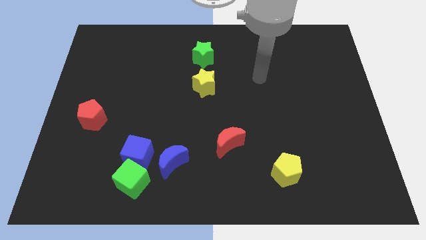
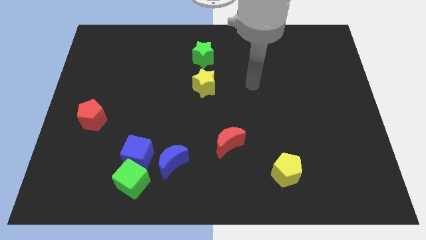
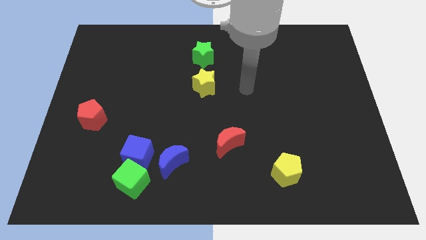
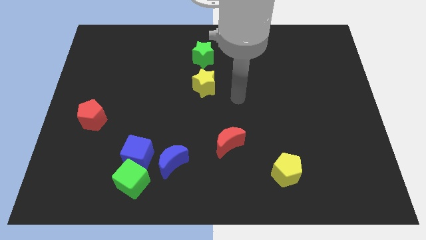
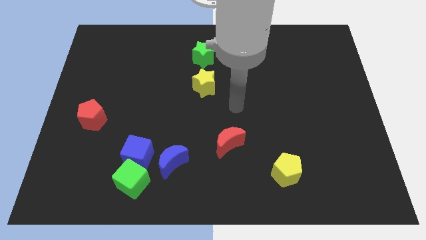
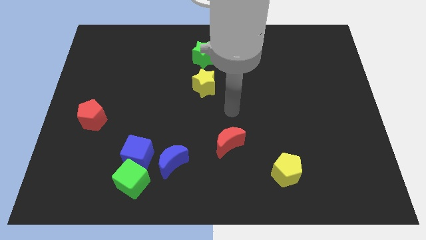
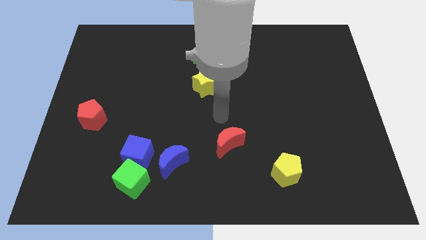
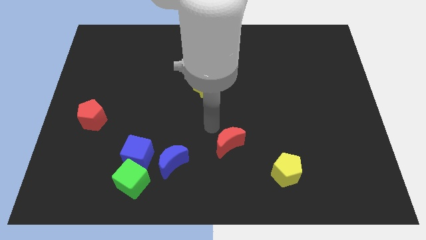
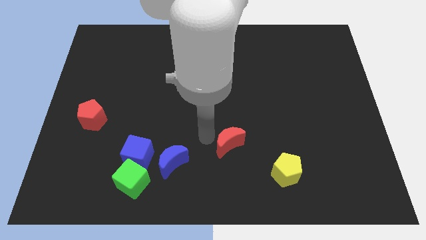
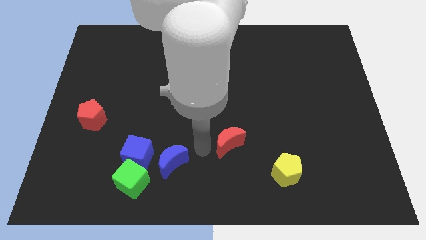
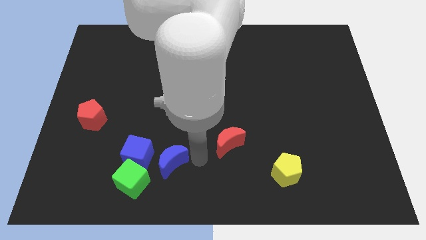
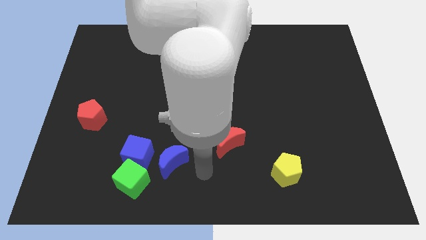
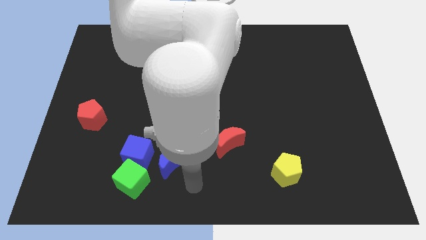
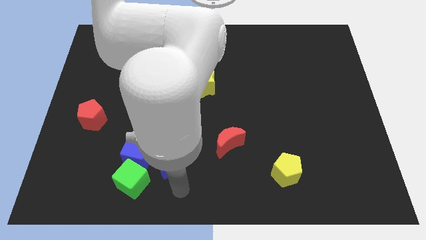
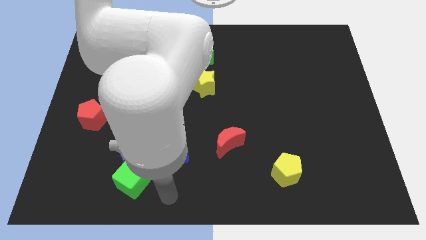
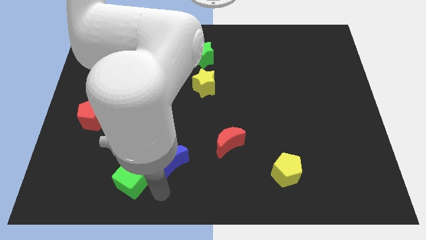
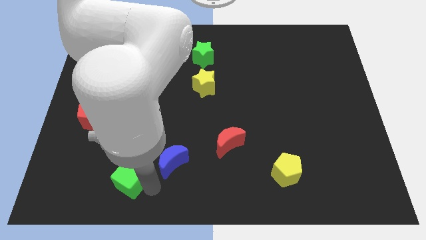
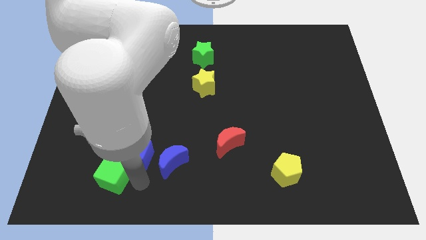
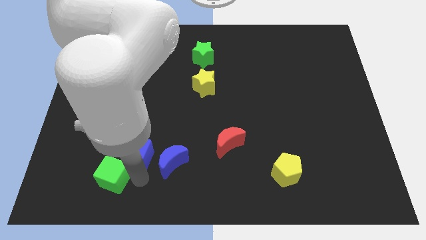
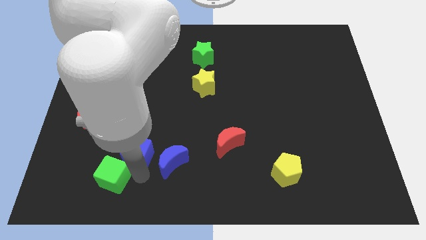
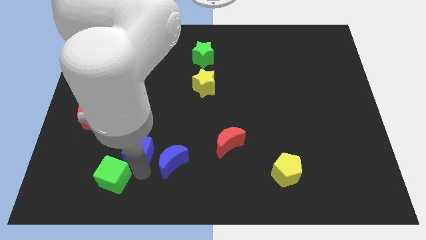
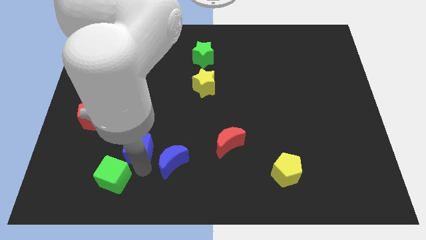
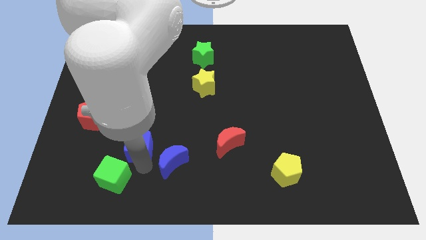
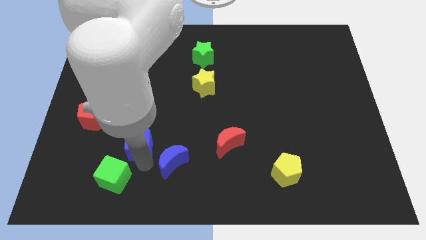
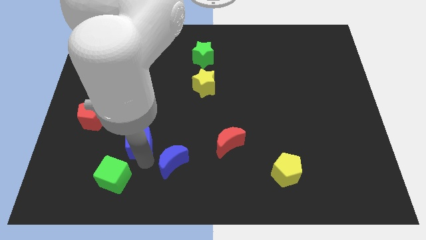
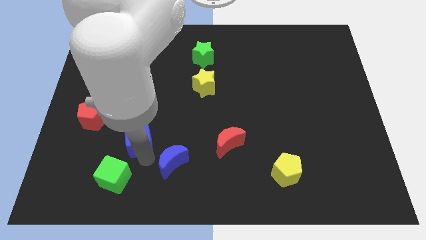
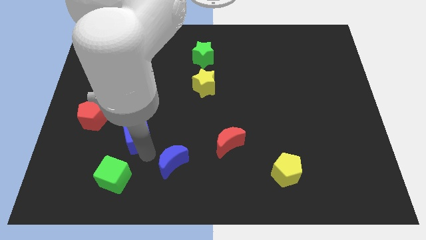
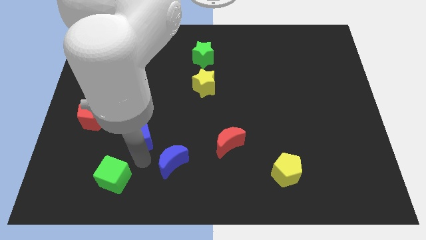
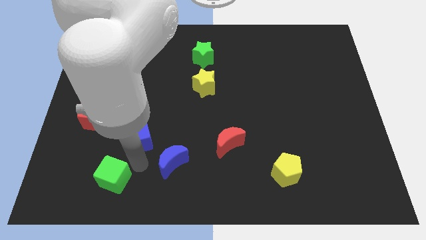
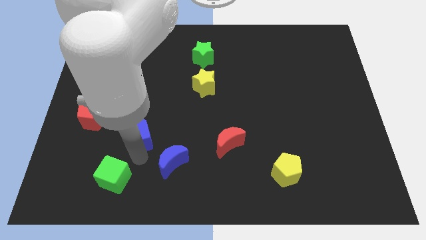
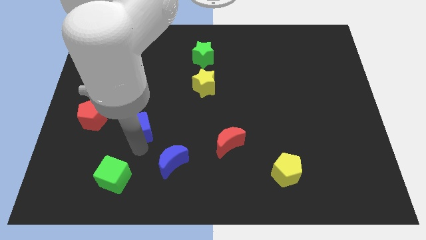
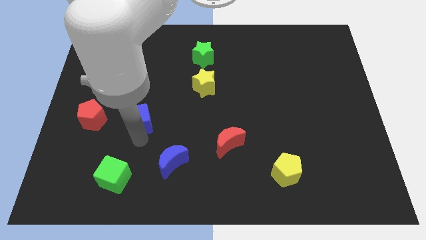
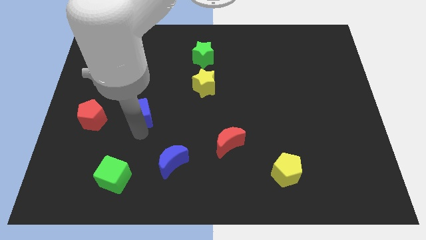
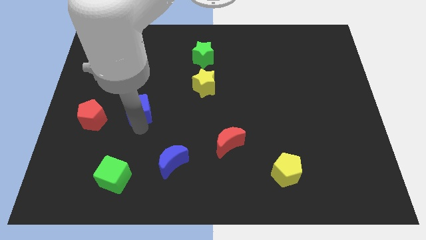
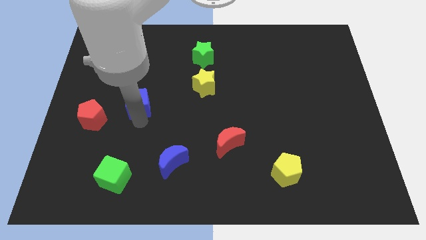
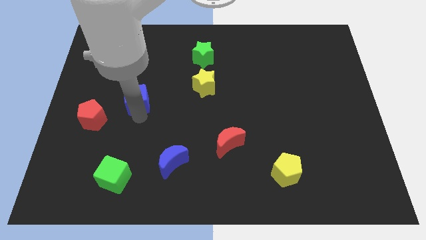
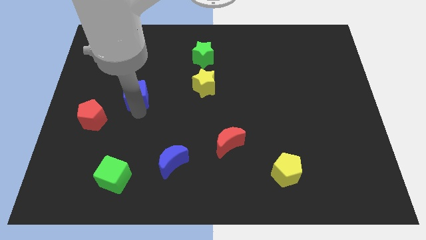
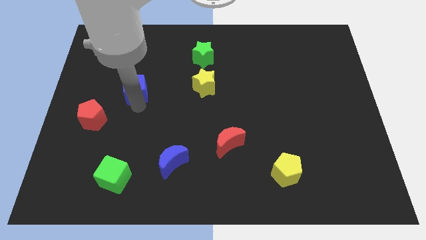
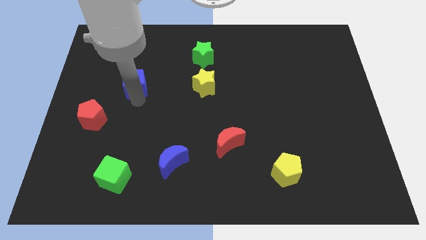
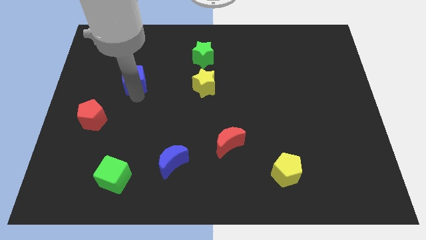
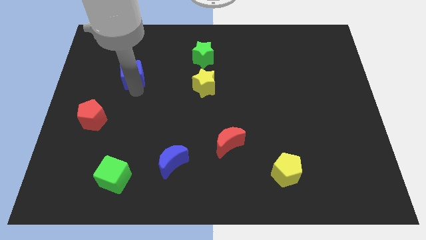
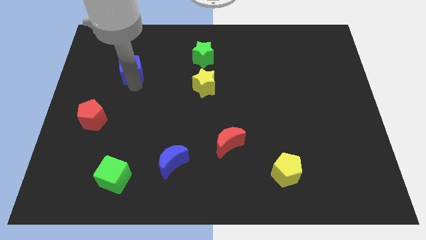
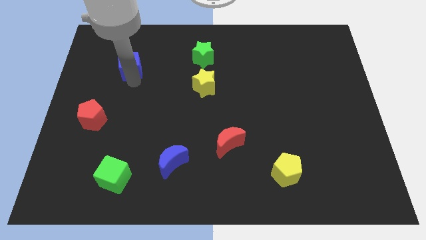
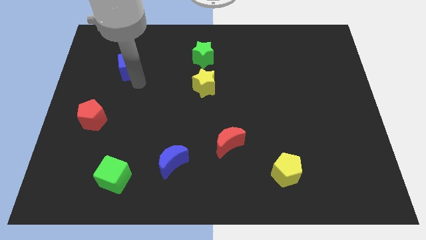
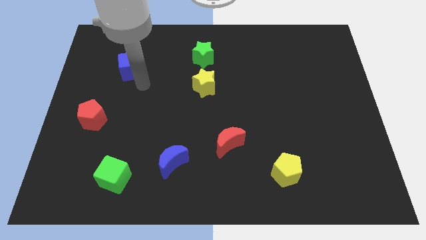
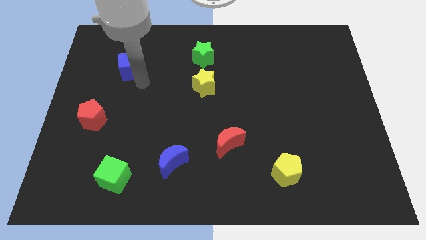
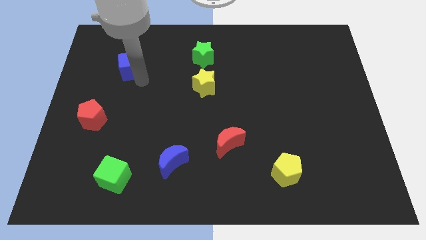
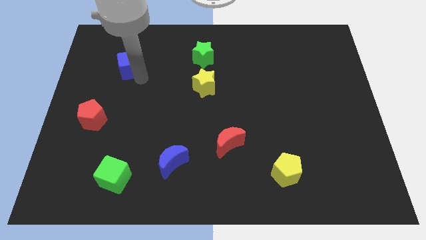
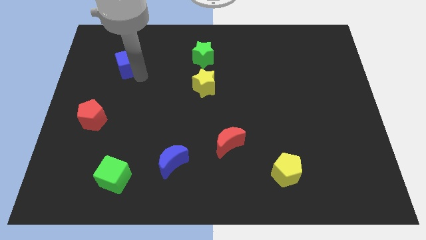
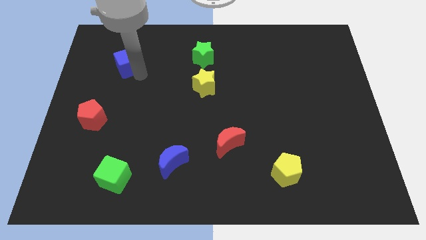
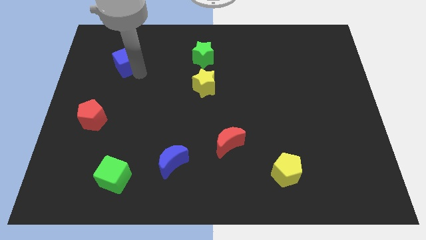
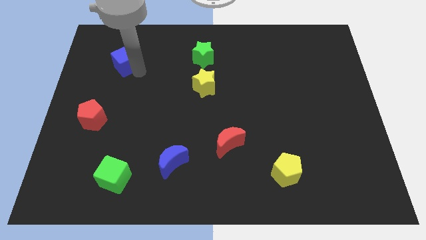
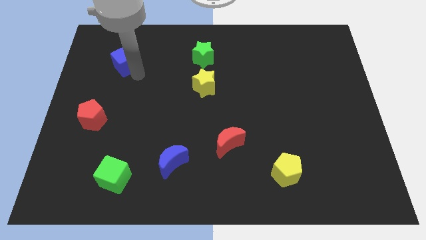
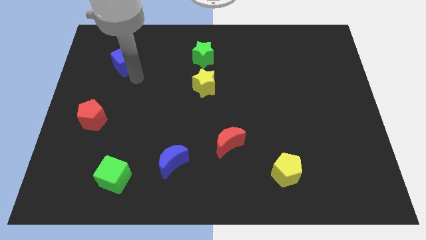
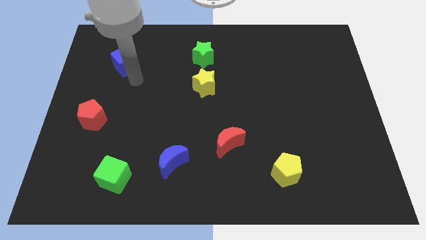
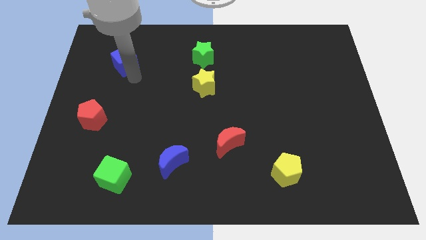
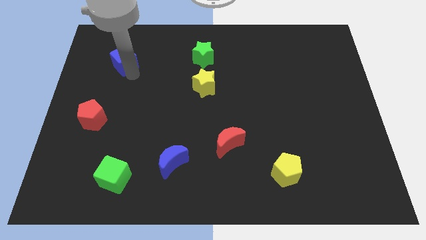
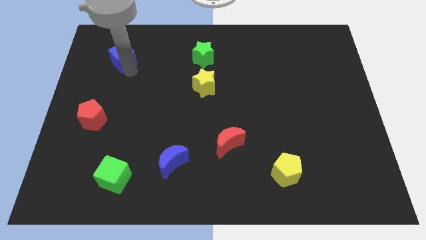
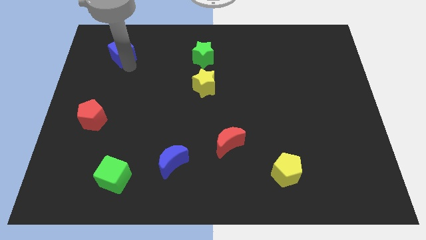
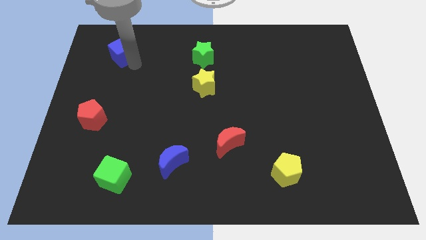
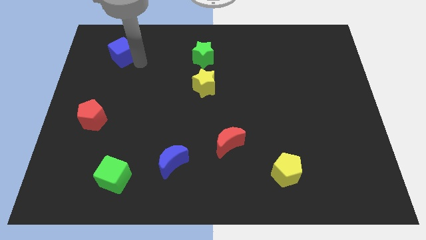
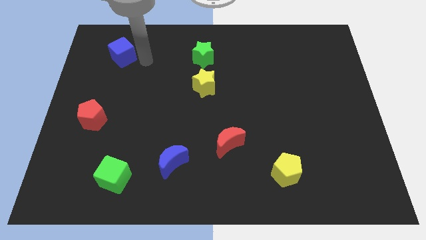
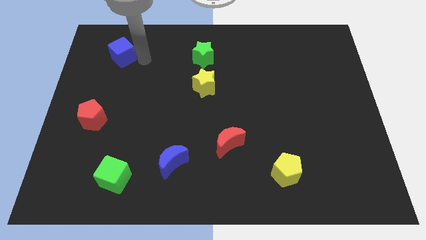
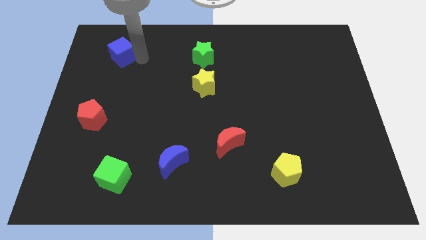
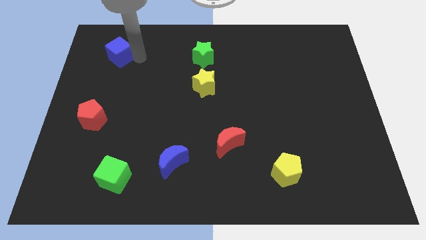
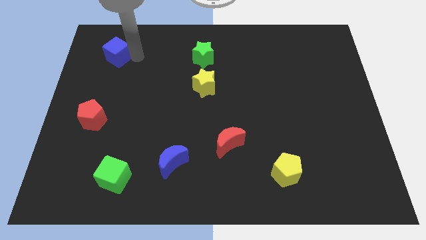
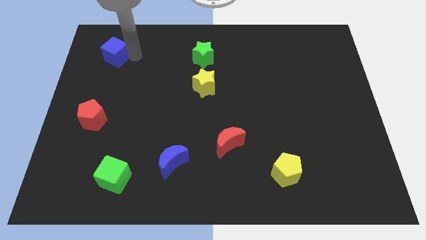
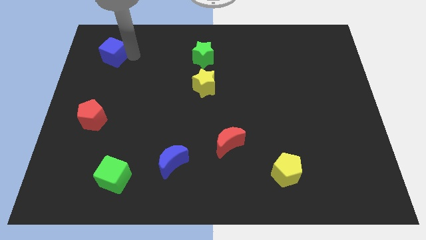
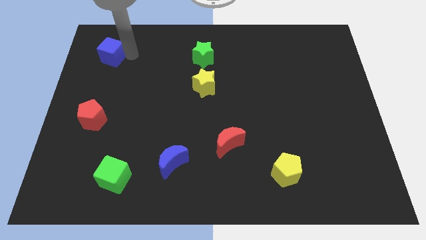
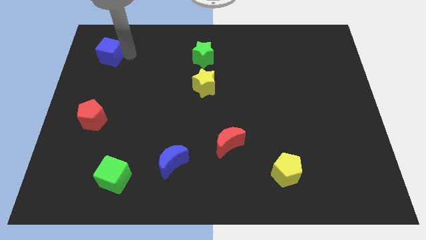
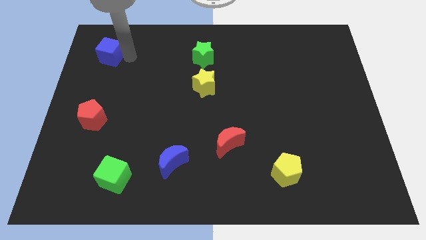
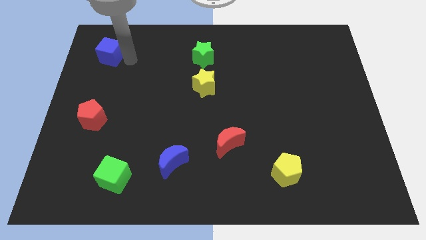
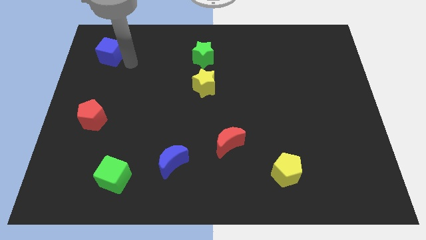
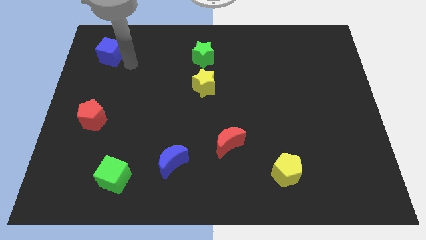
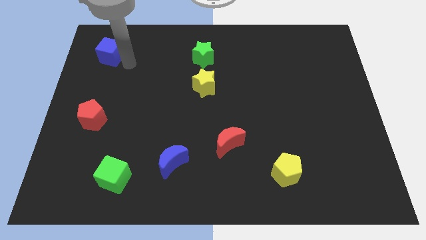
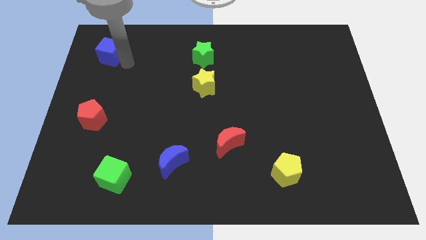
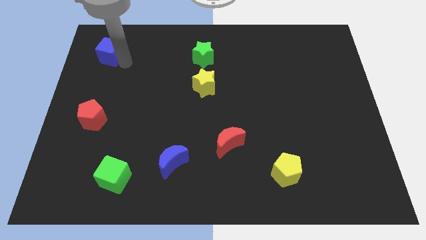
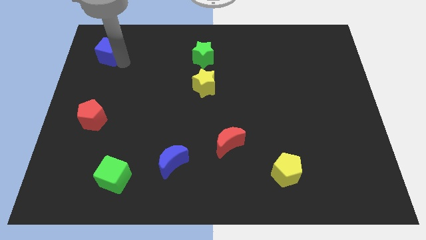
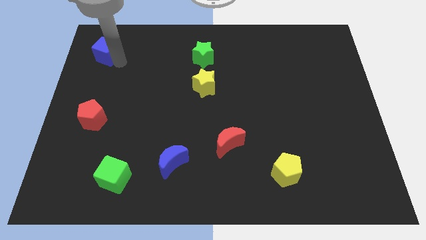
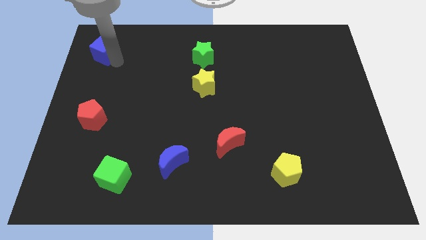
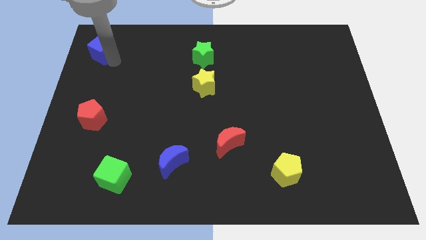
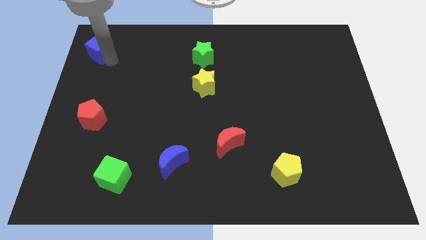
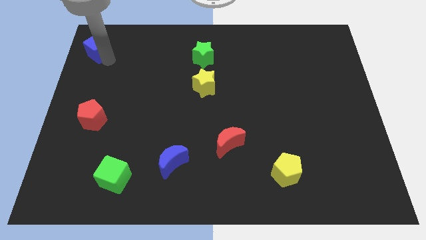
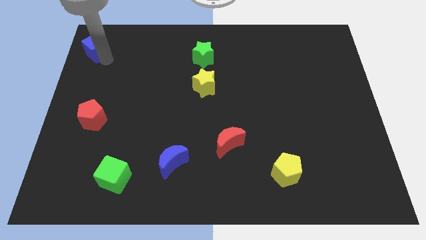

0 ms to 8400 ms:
slide the blue cube to the upper left corner
